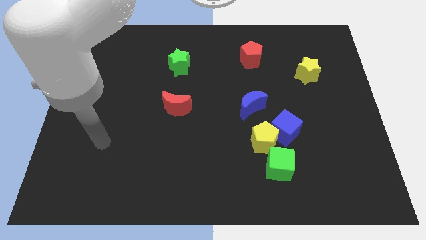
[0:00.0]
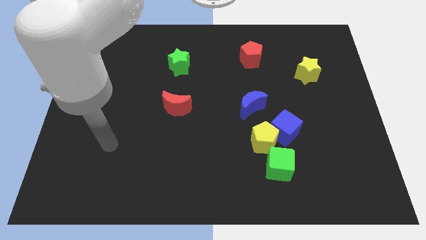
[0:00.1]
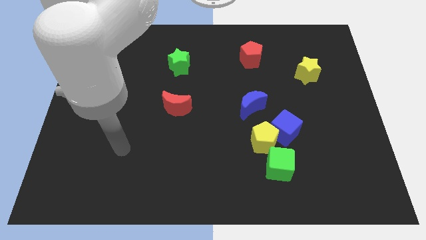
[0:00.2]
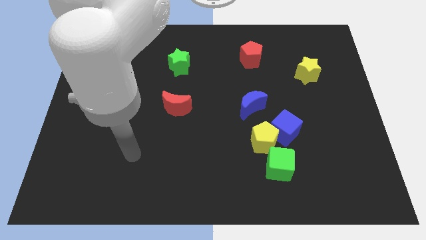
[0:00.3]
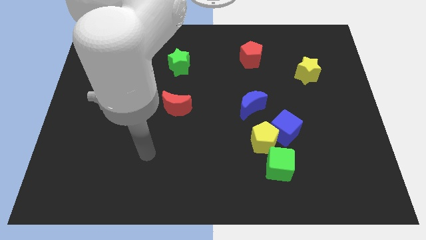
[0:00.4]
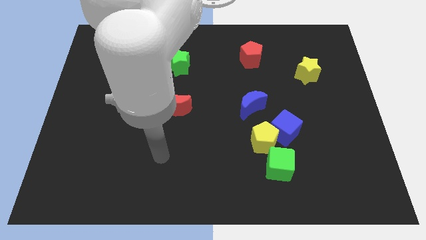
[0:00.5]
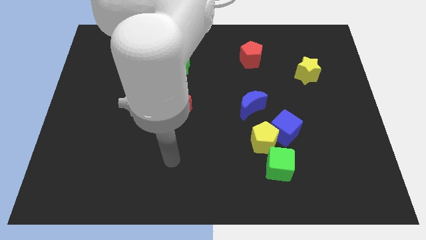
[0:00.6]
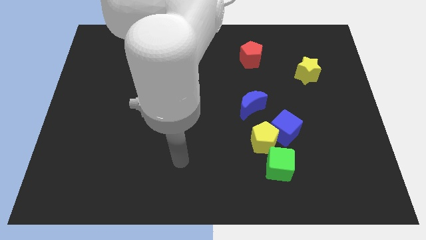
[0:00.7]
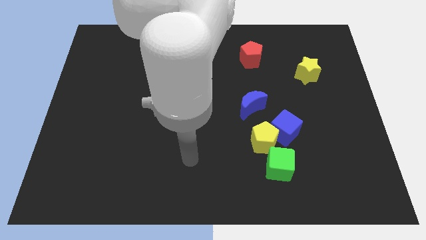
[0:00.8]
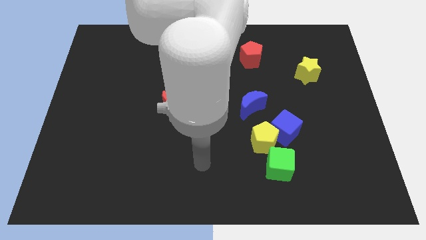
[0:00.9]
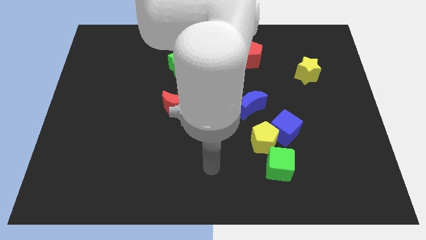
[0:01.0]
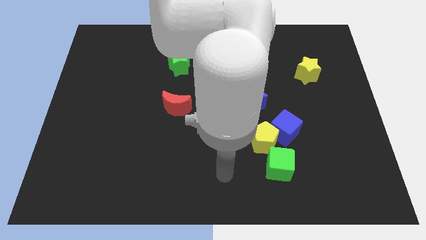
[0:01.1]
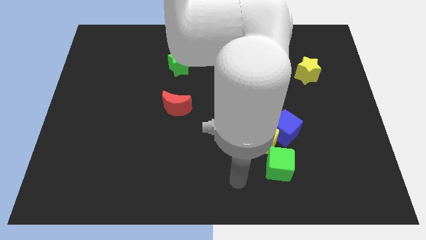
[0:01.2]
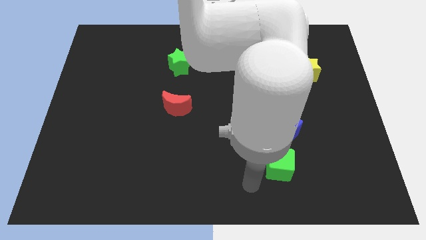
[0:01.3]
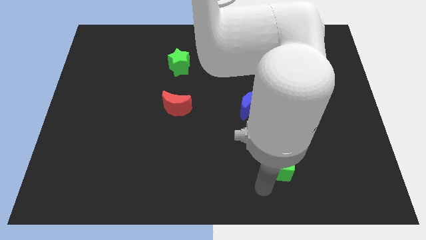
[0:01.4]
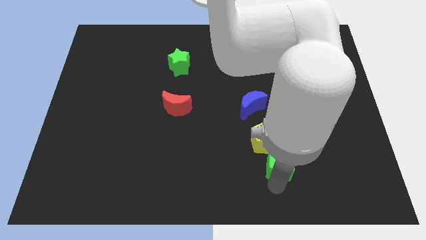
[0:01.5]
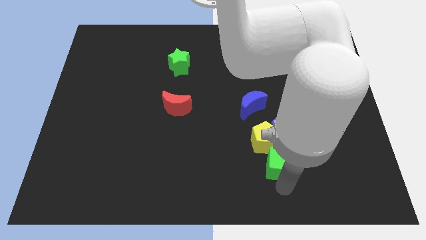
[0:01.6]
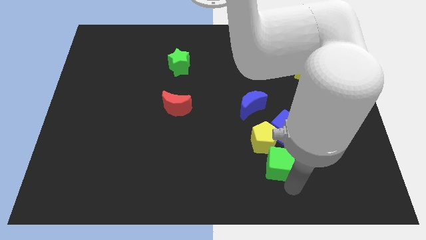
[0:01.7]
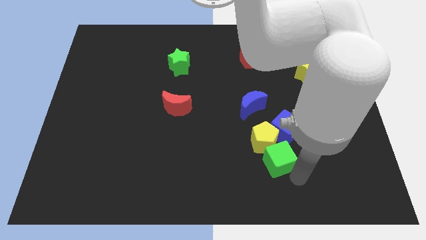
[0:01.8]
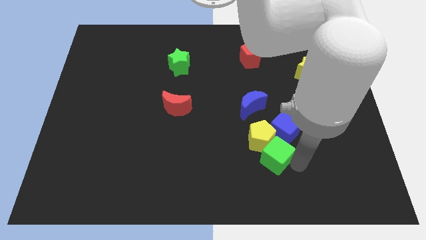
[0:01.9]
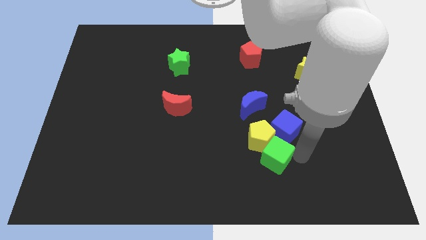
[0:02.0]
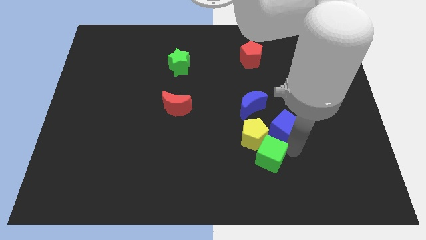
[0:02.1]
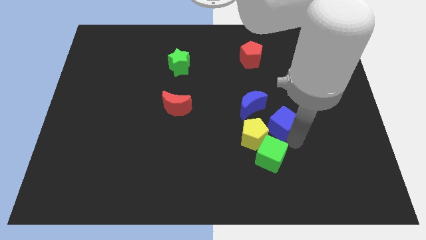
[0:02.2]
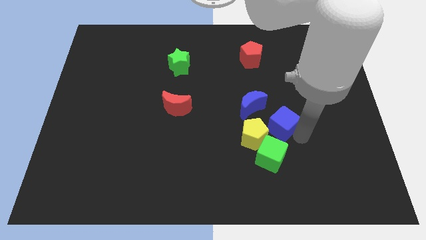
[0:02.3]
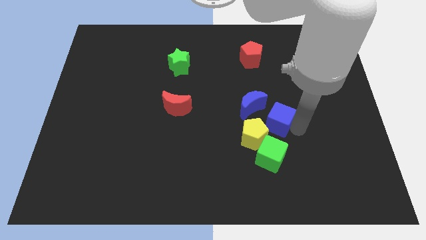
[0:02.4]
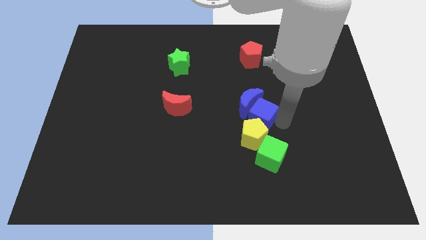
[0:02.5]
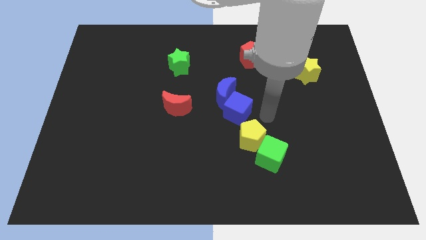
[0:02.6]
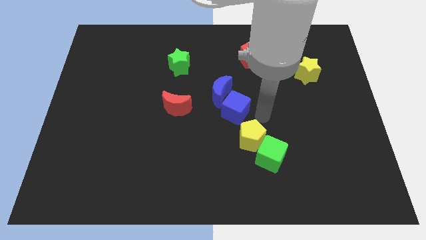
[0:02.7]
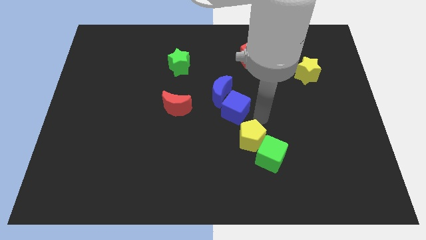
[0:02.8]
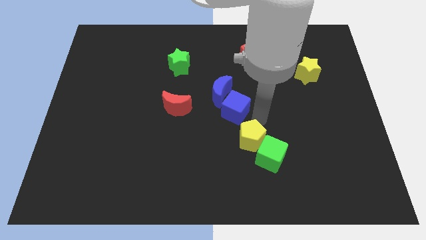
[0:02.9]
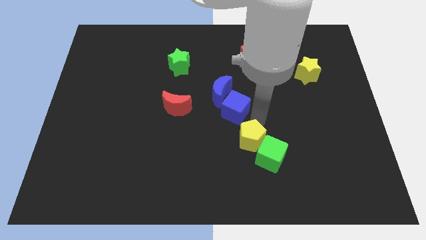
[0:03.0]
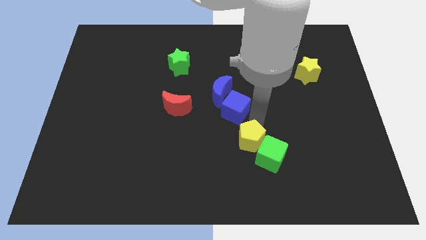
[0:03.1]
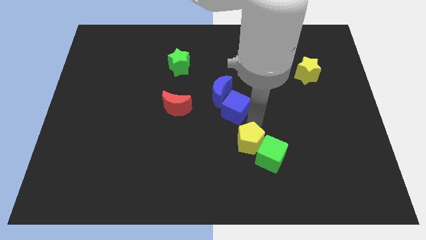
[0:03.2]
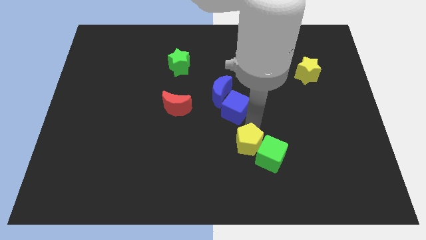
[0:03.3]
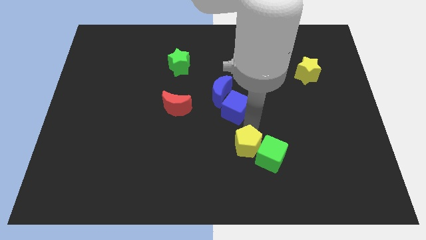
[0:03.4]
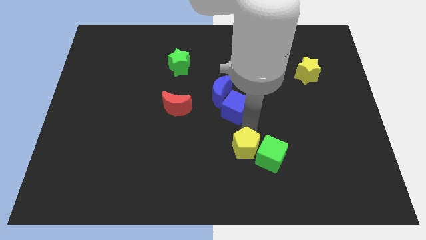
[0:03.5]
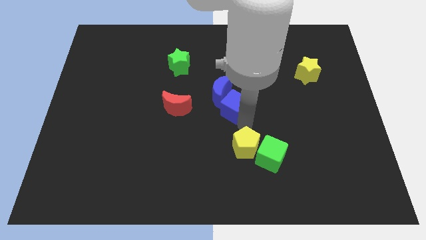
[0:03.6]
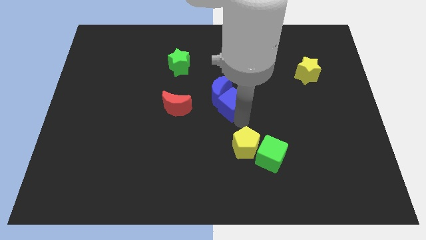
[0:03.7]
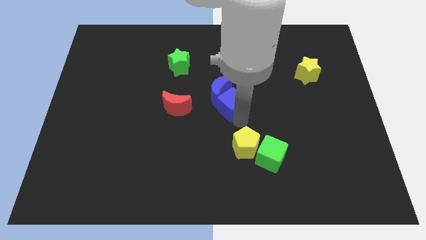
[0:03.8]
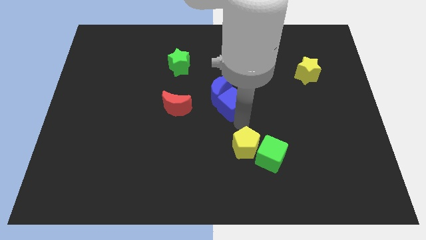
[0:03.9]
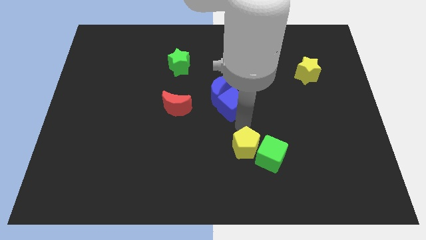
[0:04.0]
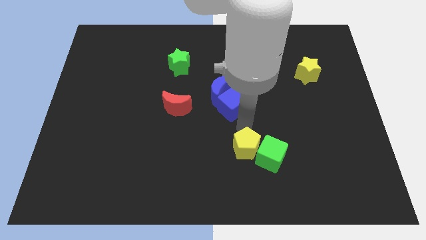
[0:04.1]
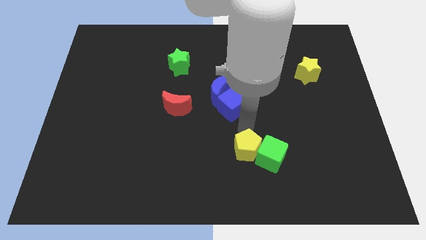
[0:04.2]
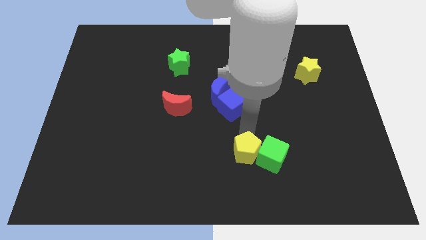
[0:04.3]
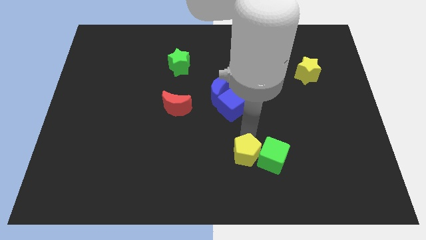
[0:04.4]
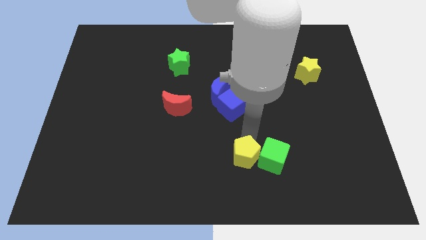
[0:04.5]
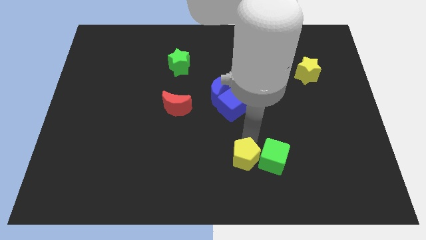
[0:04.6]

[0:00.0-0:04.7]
pull the yellow pentagon apart from the blue cube, green cube, and blue moon

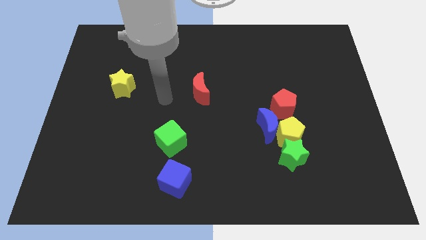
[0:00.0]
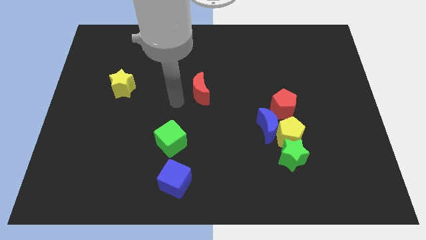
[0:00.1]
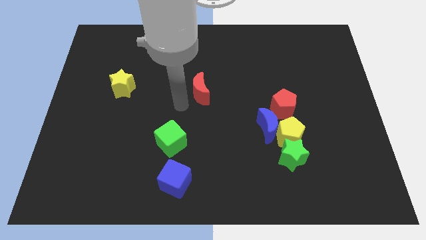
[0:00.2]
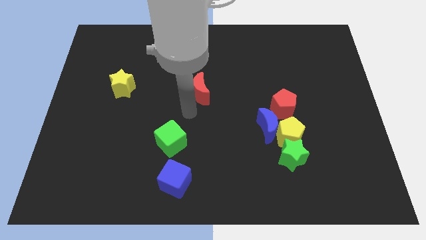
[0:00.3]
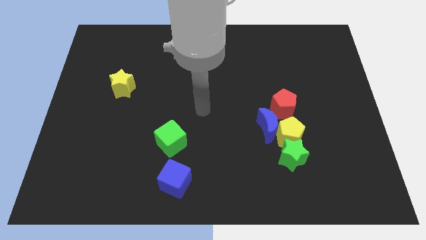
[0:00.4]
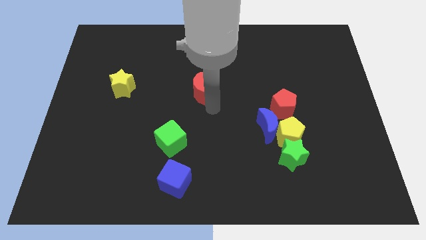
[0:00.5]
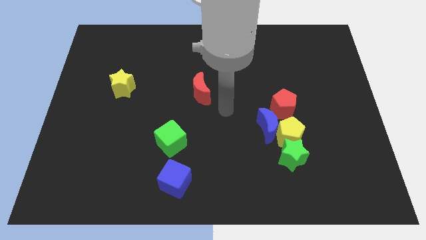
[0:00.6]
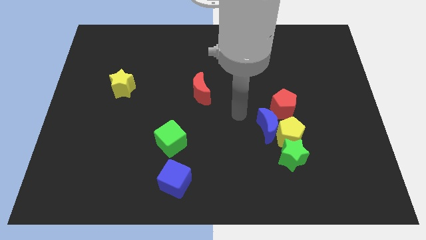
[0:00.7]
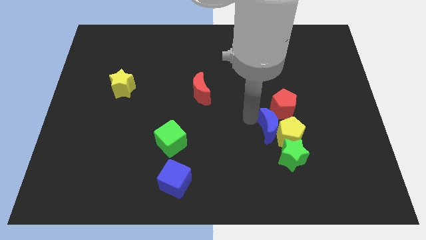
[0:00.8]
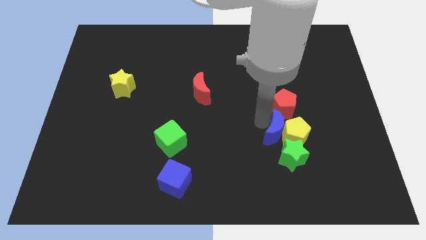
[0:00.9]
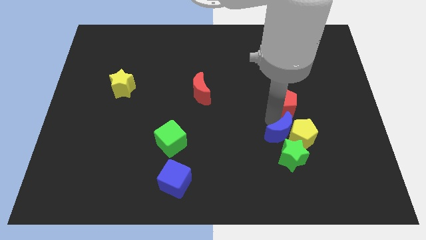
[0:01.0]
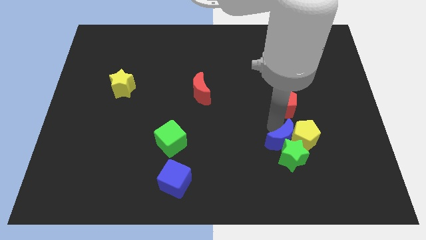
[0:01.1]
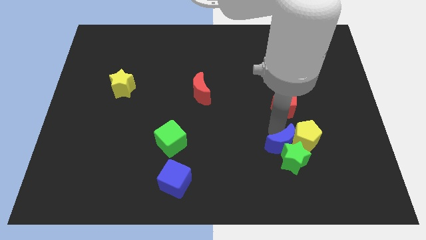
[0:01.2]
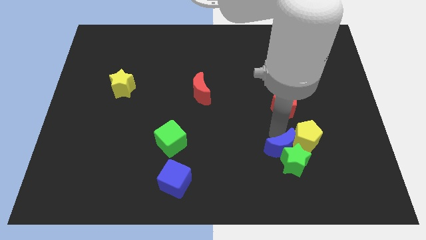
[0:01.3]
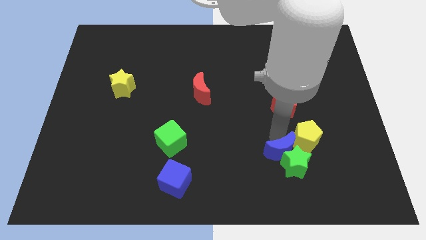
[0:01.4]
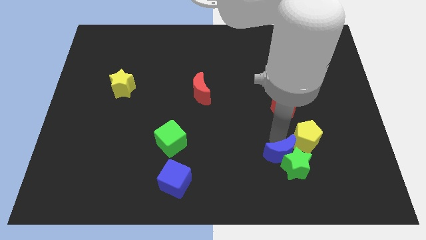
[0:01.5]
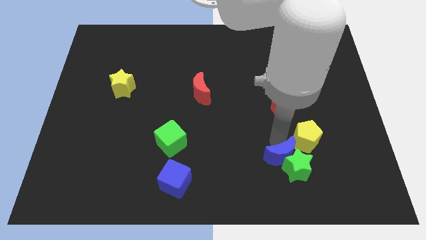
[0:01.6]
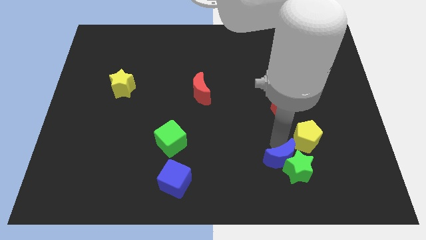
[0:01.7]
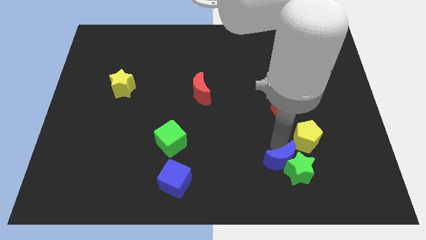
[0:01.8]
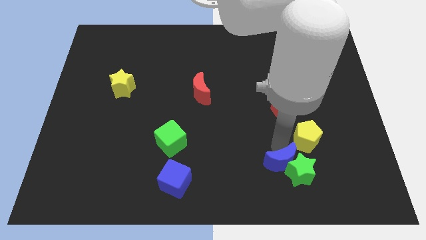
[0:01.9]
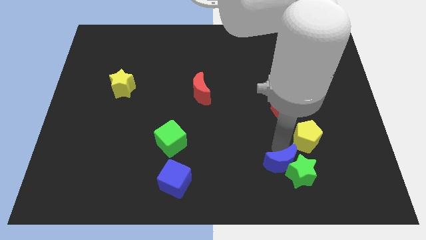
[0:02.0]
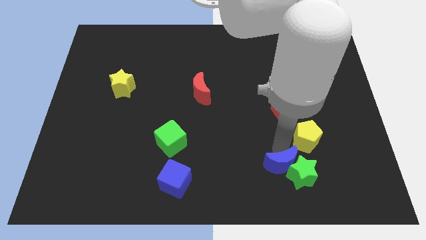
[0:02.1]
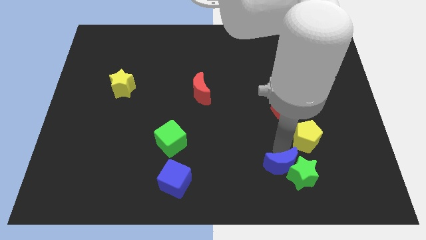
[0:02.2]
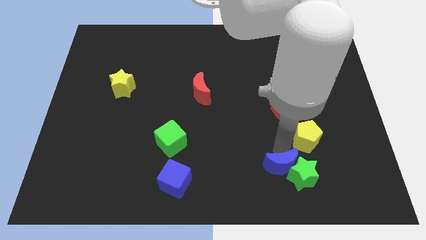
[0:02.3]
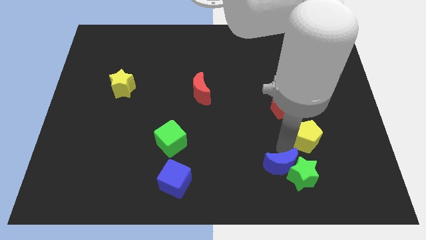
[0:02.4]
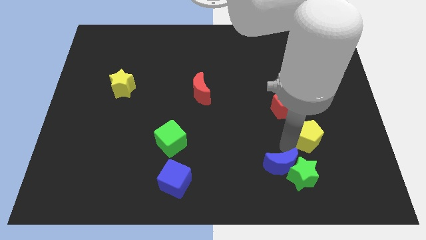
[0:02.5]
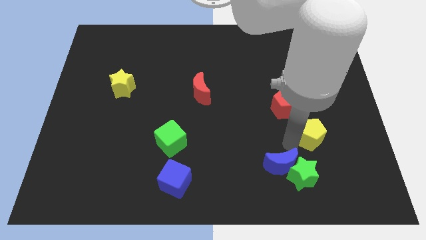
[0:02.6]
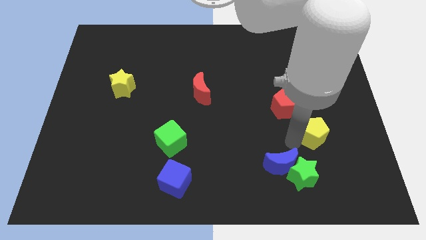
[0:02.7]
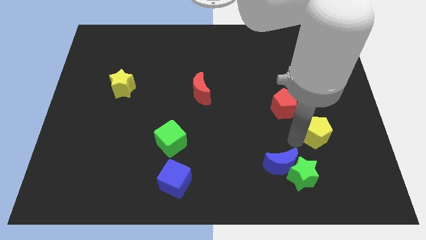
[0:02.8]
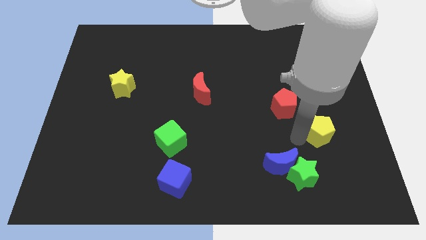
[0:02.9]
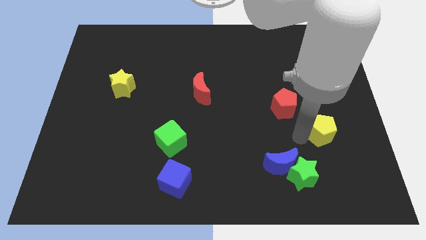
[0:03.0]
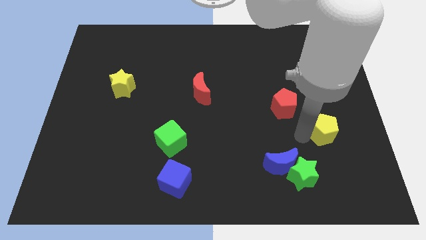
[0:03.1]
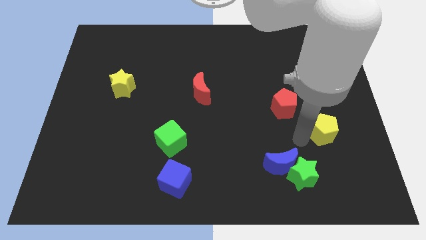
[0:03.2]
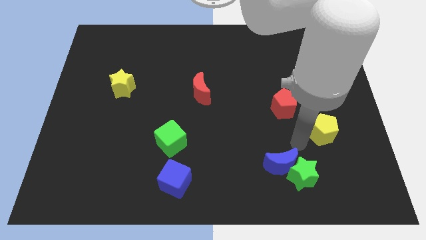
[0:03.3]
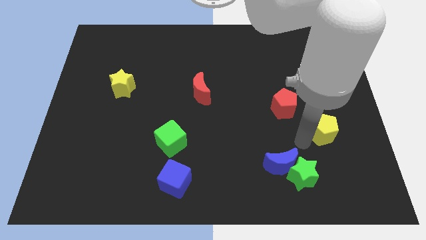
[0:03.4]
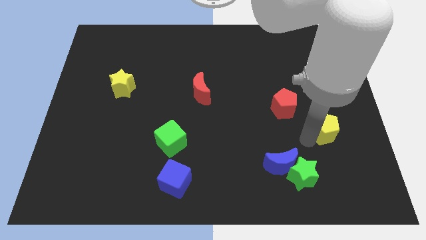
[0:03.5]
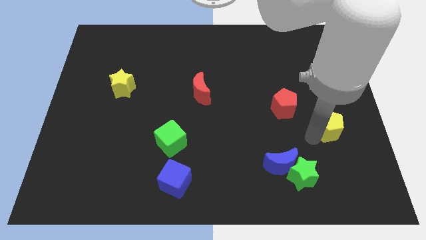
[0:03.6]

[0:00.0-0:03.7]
move the yellow pentagon away from the group

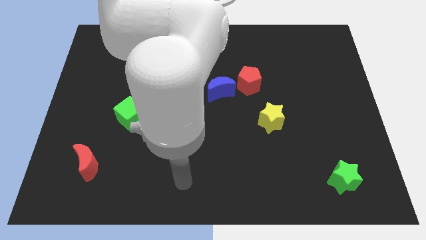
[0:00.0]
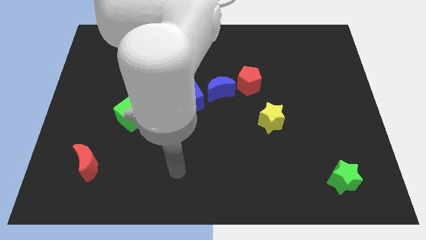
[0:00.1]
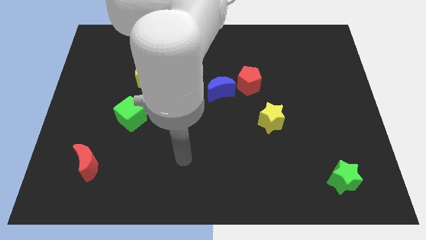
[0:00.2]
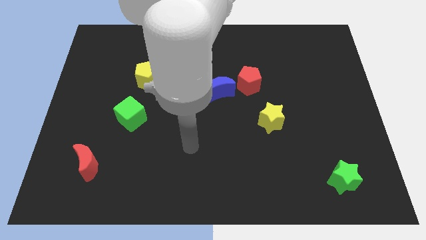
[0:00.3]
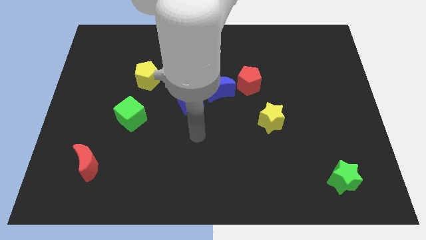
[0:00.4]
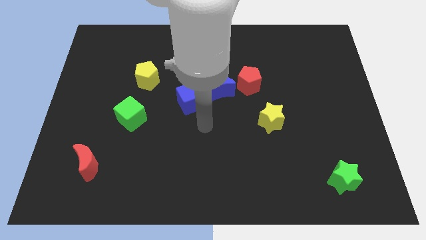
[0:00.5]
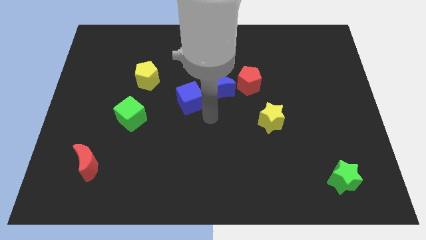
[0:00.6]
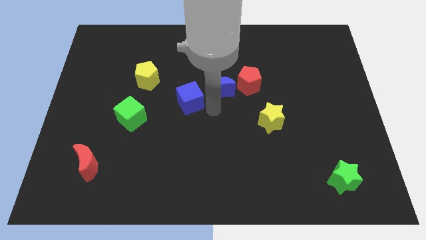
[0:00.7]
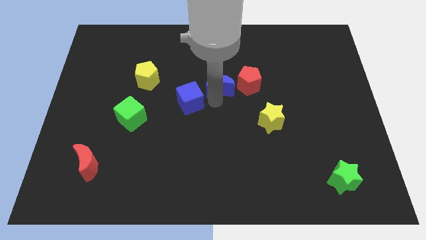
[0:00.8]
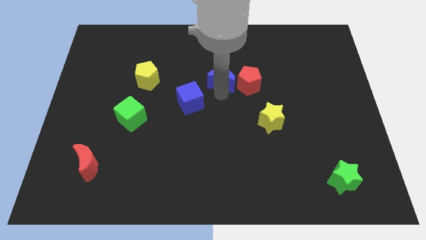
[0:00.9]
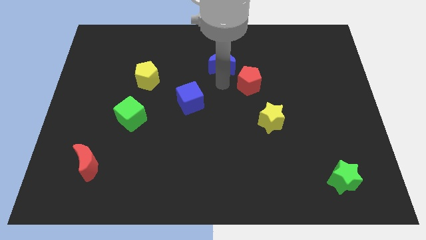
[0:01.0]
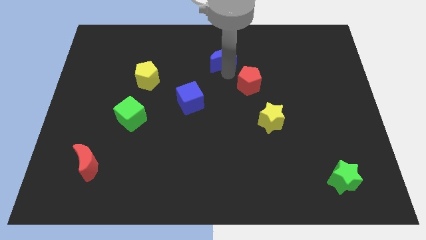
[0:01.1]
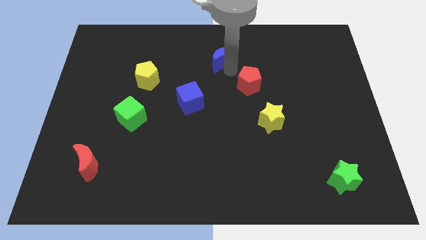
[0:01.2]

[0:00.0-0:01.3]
pull the red pentagon apart from the blue moon
